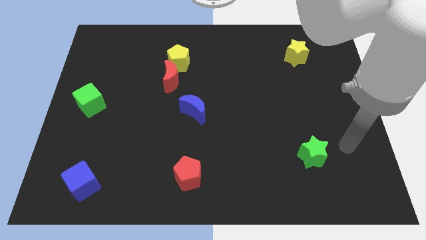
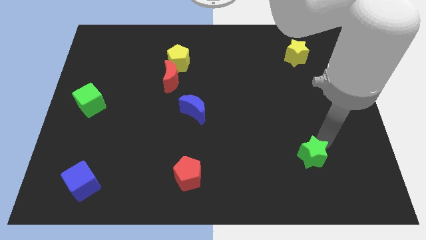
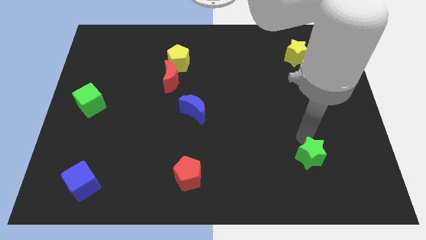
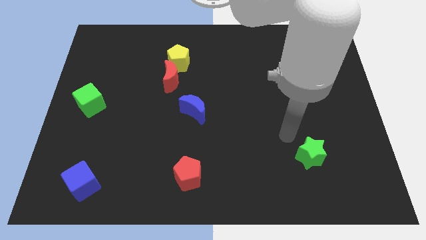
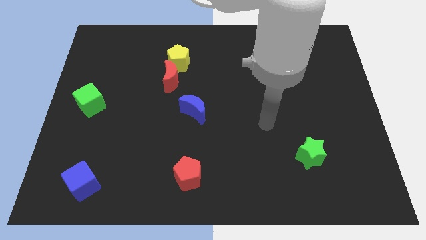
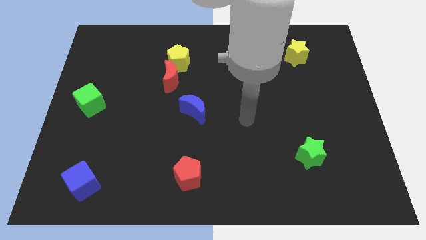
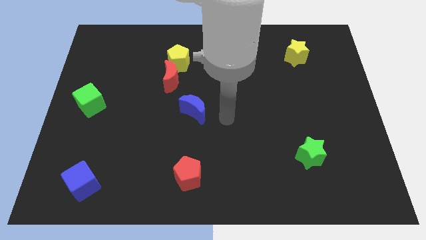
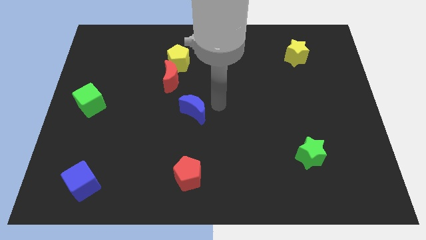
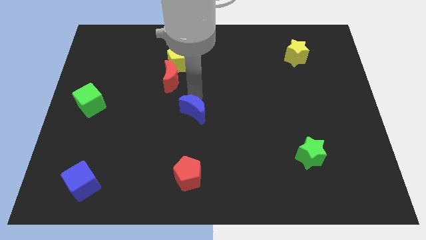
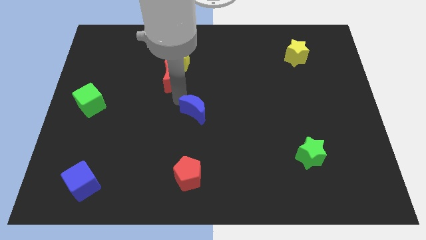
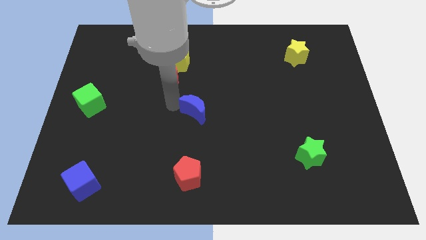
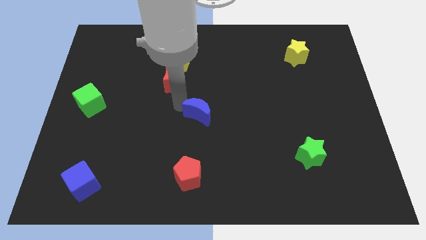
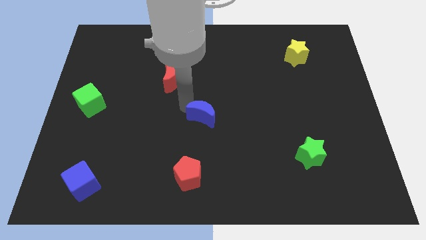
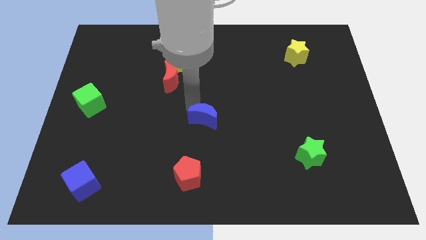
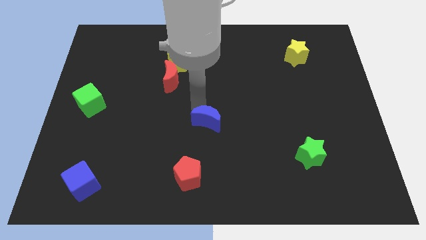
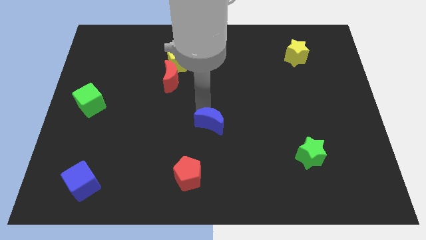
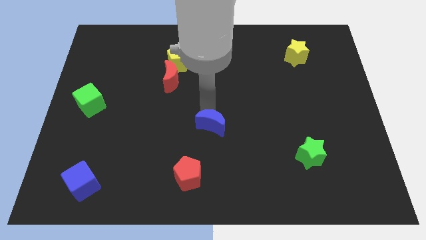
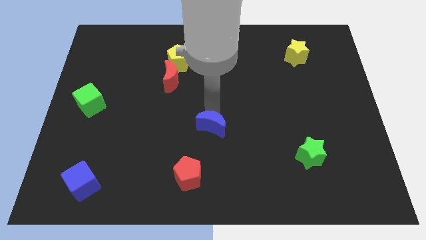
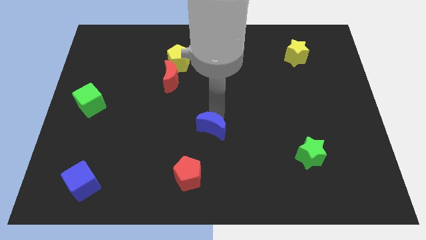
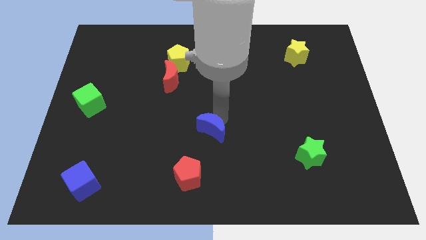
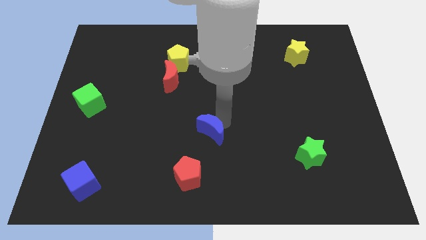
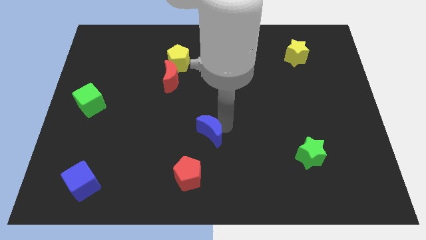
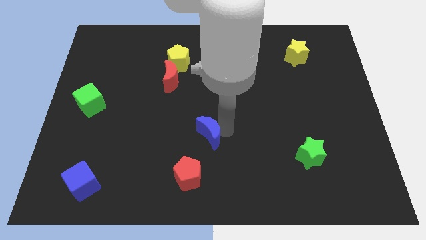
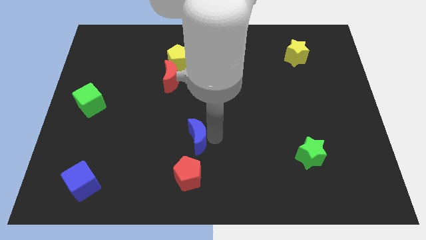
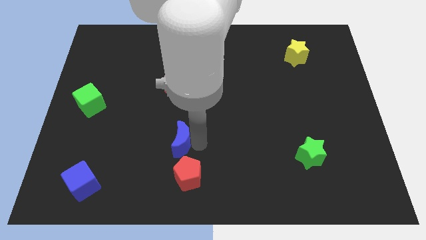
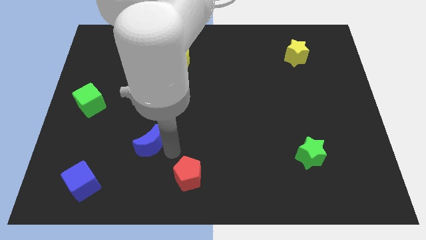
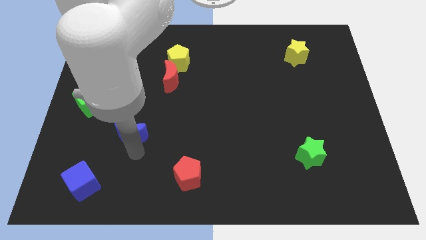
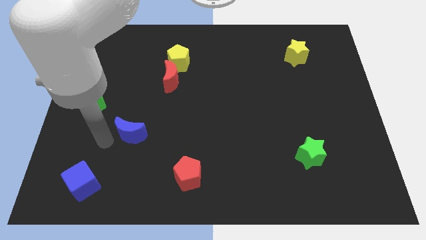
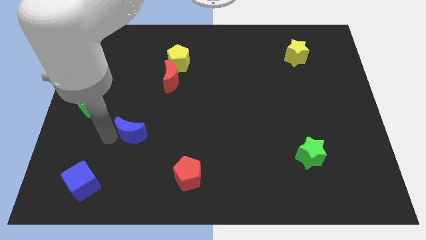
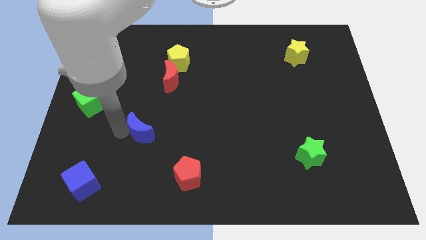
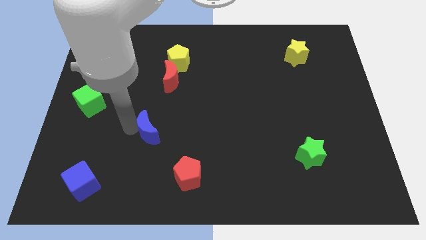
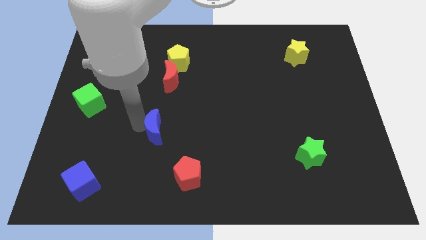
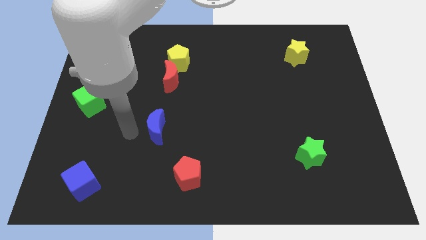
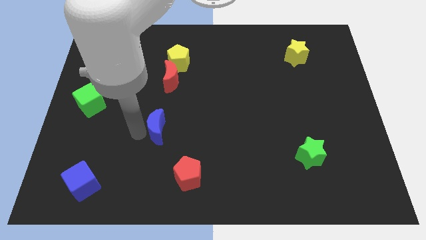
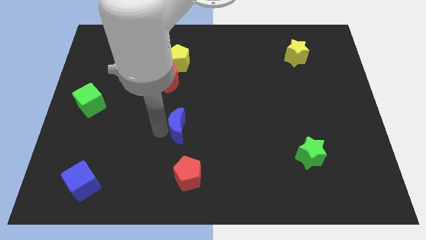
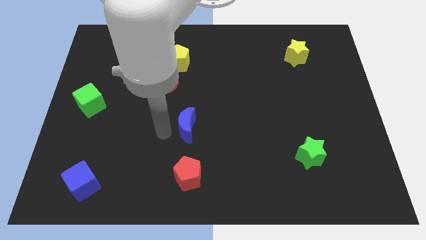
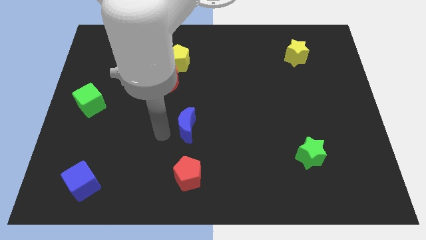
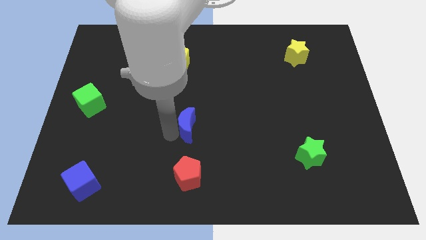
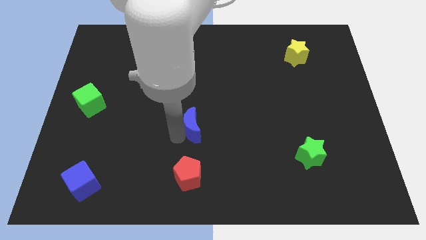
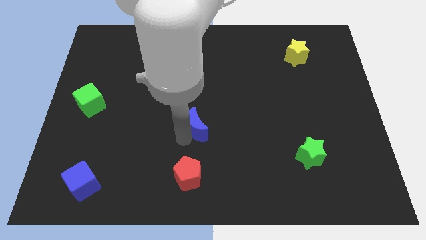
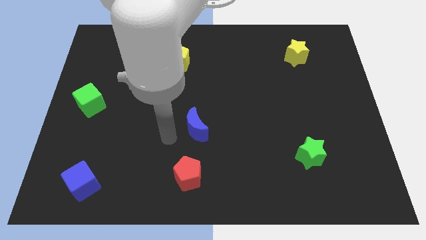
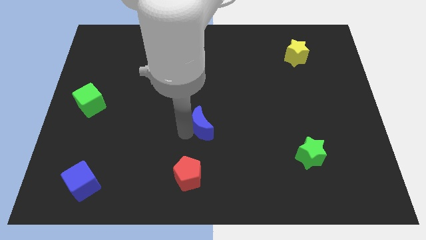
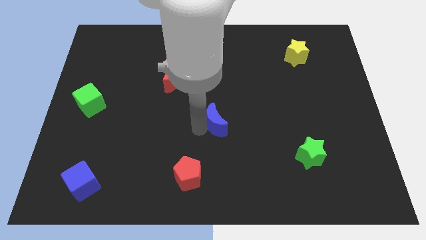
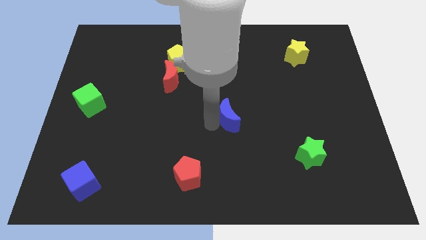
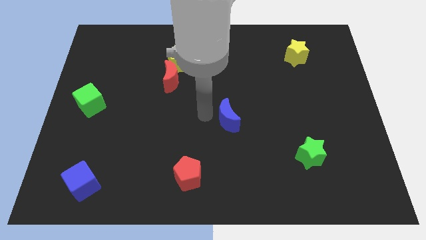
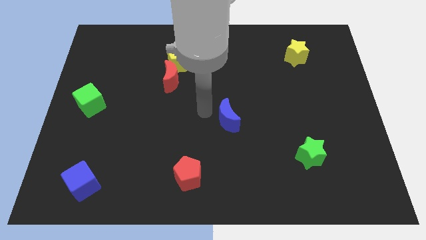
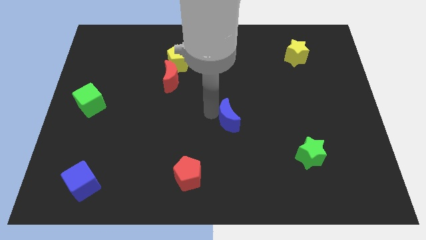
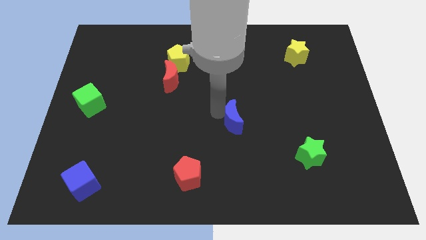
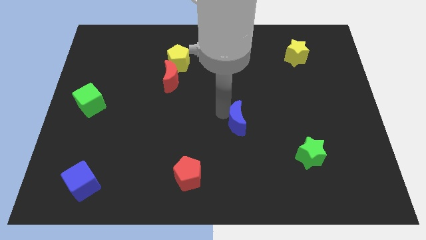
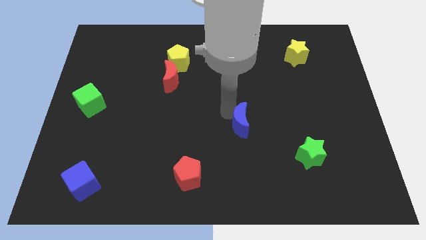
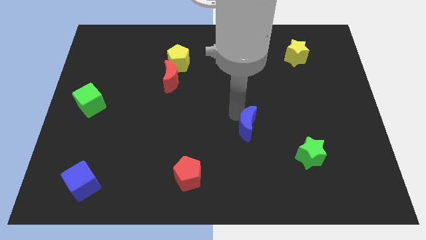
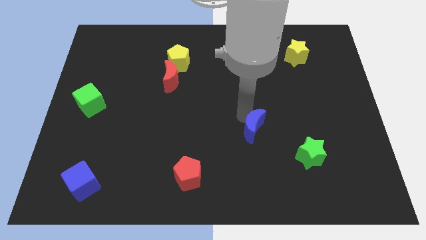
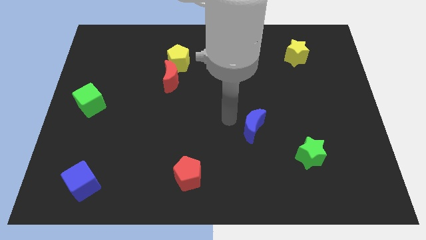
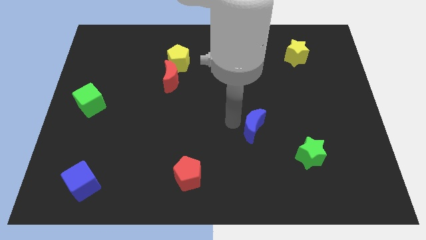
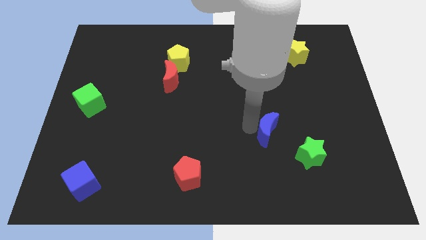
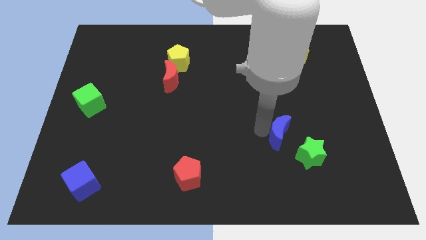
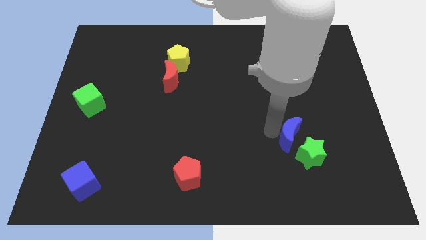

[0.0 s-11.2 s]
move the blue moon close to the green star

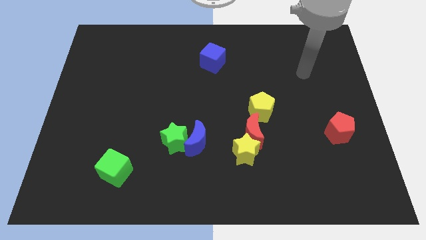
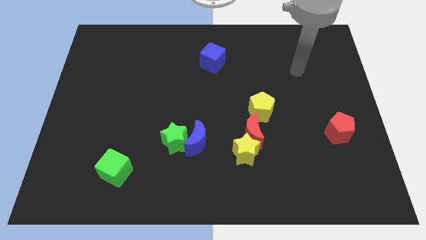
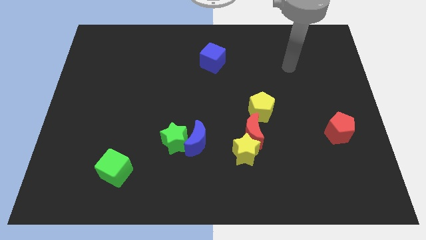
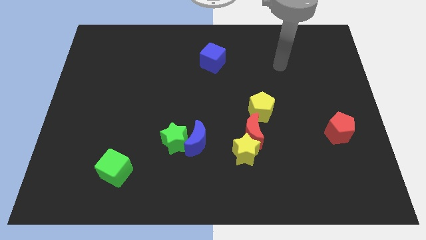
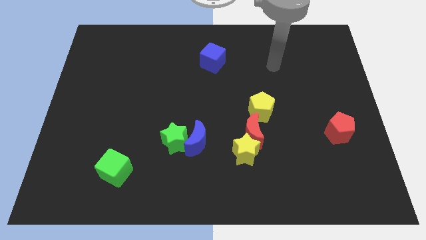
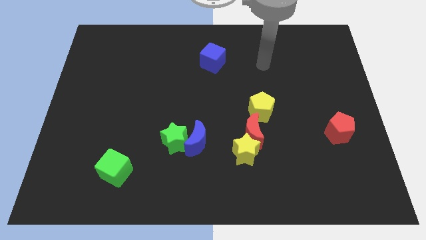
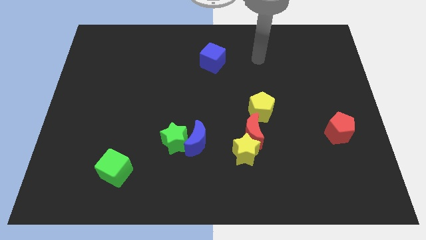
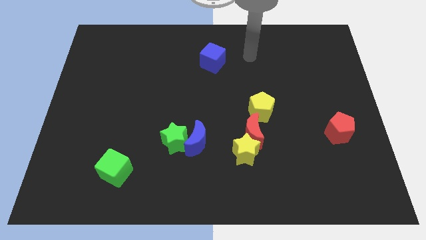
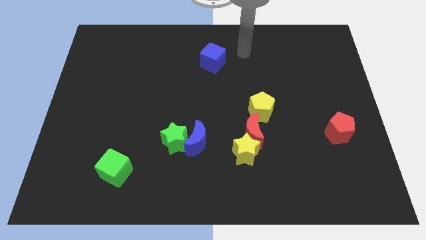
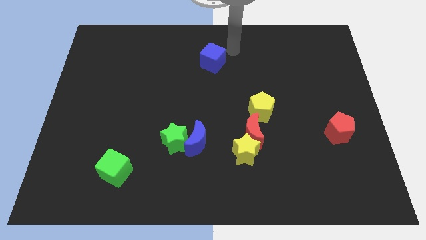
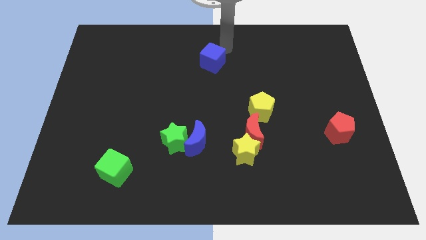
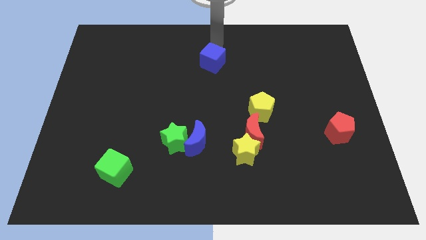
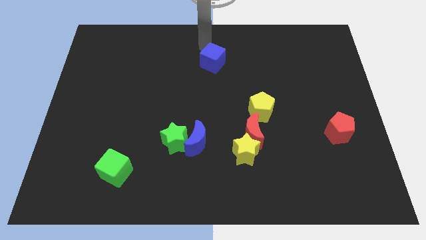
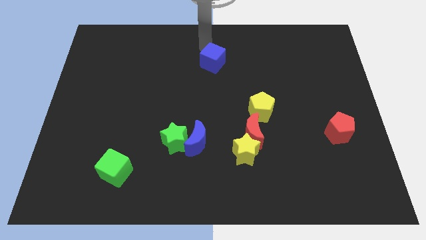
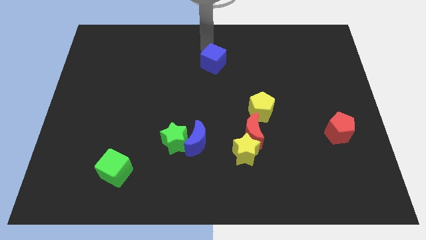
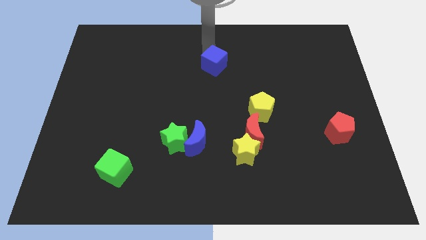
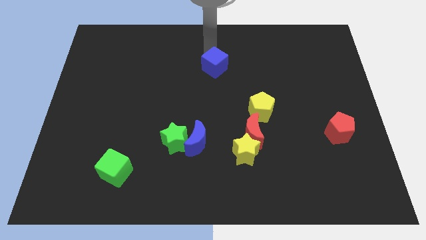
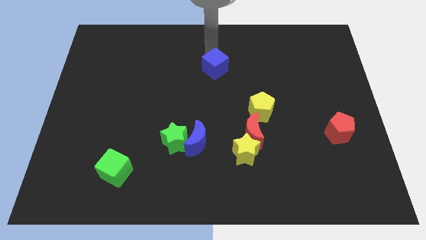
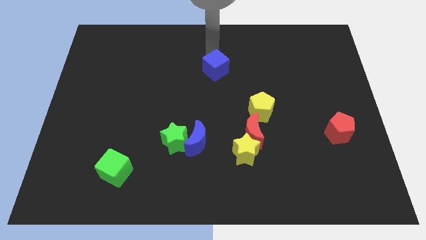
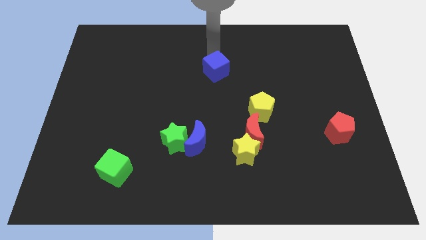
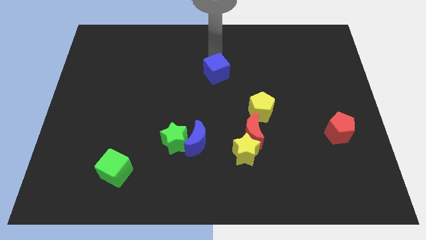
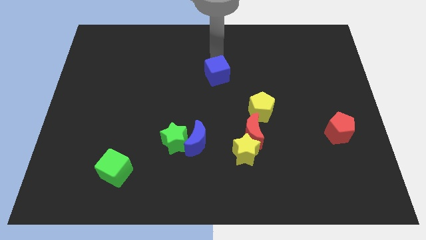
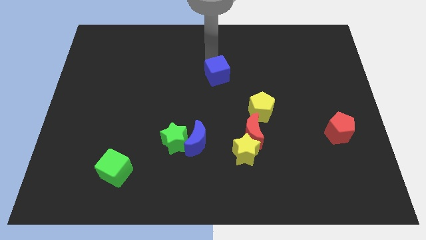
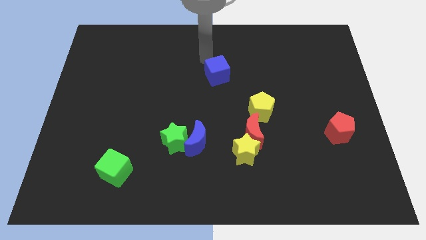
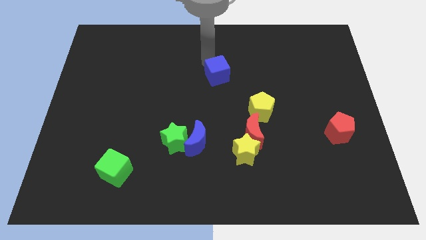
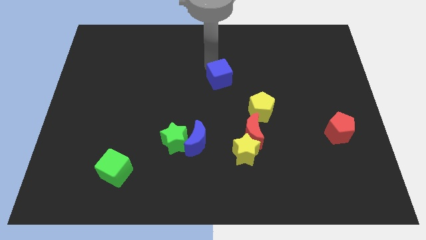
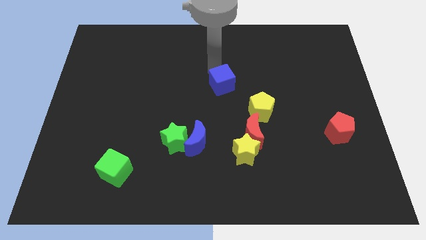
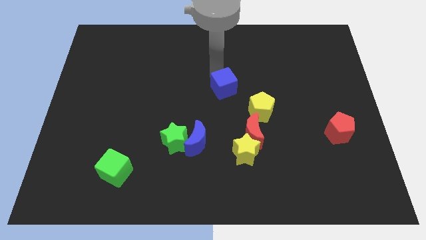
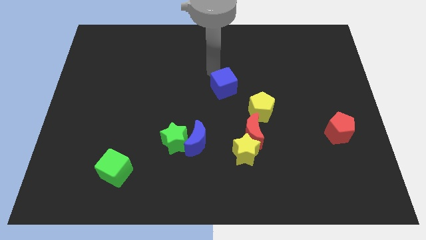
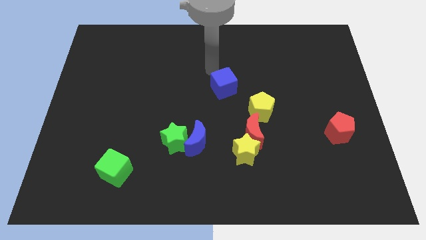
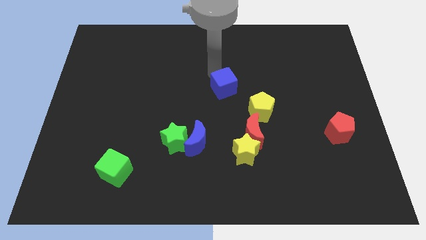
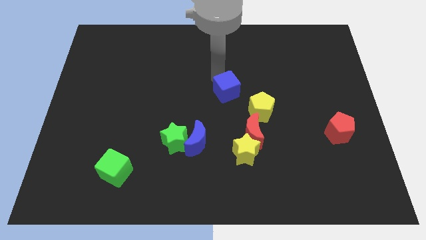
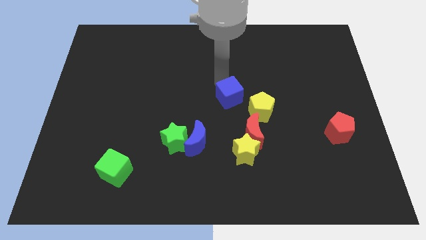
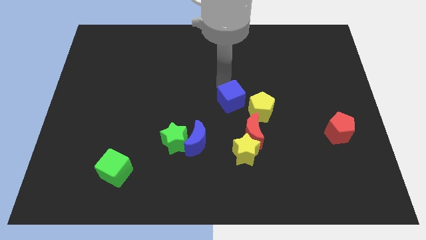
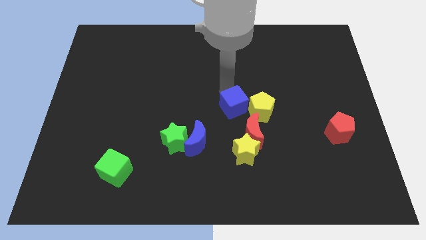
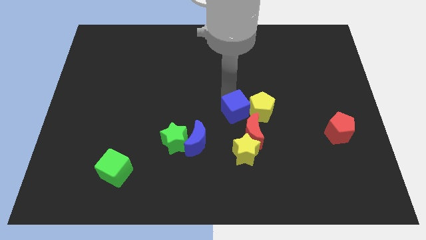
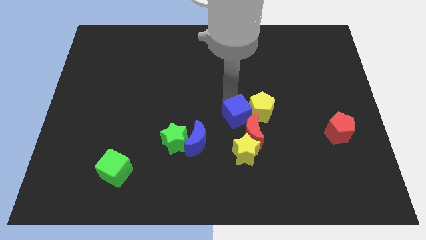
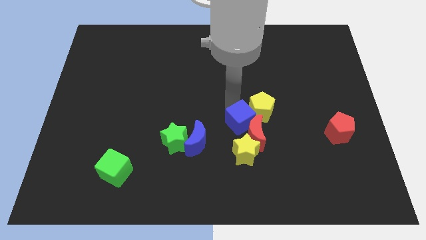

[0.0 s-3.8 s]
put the blue cube to the red moon
